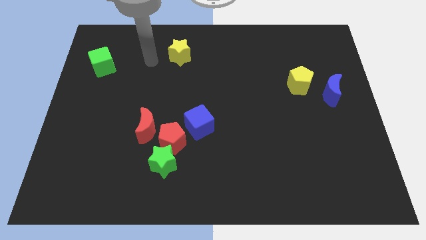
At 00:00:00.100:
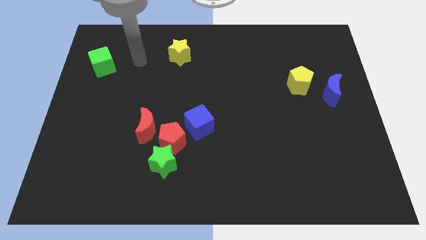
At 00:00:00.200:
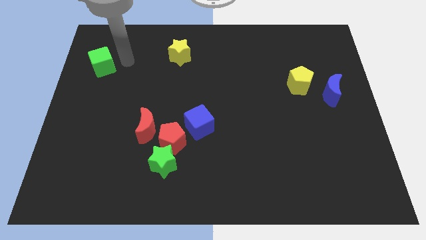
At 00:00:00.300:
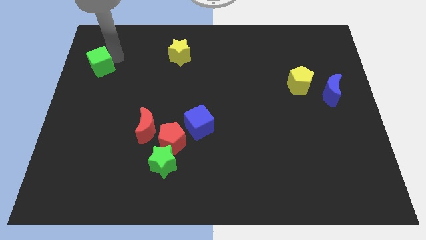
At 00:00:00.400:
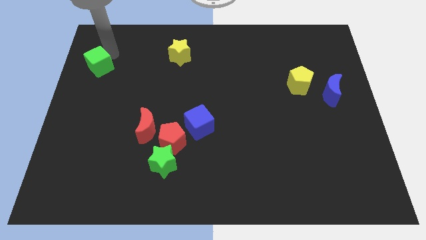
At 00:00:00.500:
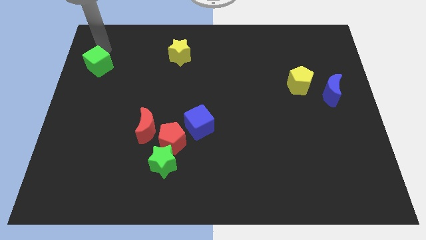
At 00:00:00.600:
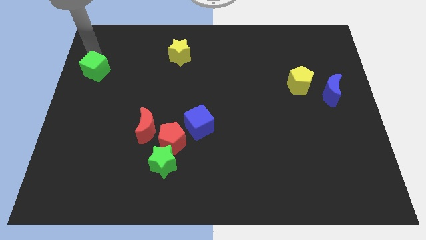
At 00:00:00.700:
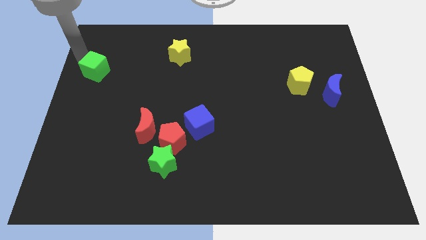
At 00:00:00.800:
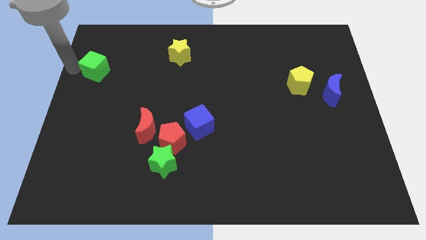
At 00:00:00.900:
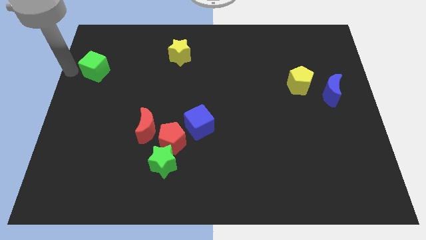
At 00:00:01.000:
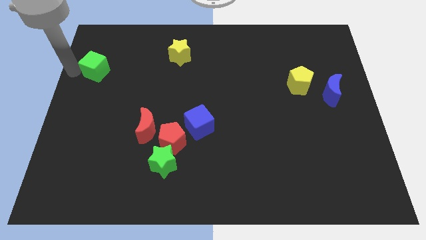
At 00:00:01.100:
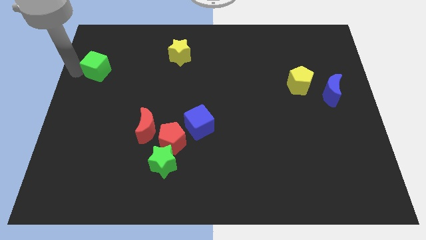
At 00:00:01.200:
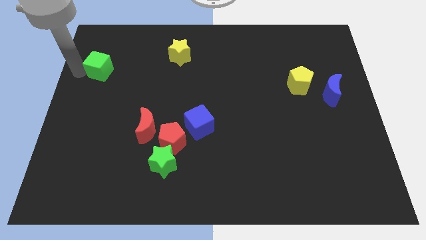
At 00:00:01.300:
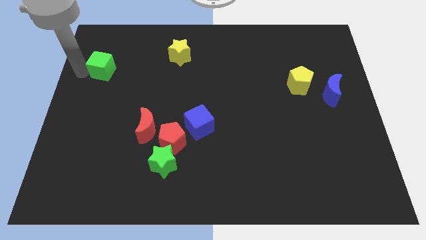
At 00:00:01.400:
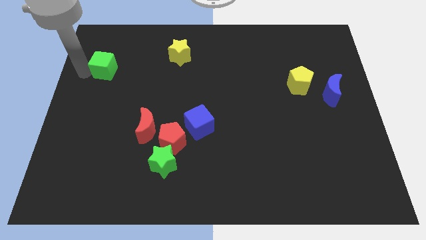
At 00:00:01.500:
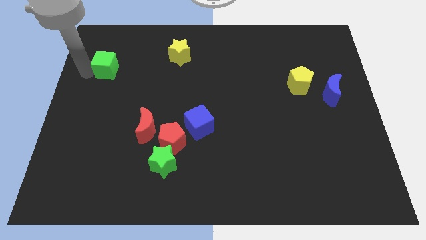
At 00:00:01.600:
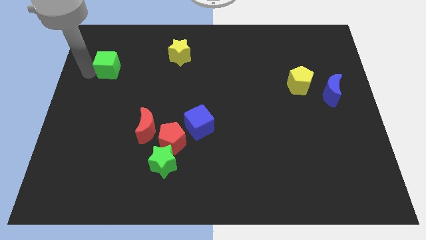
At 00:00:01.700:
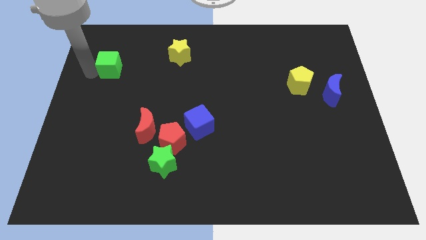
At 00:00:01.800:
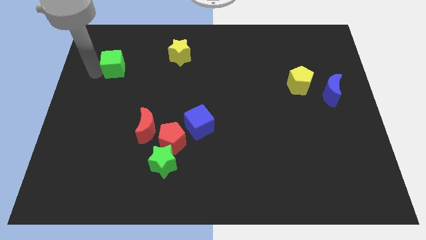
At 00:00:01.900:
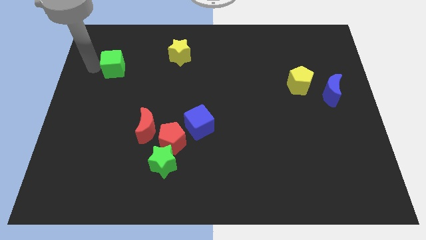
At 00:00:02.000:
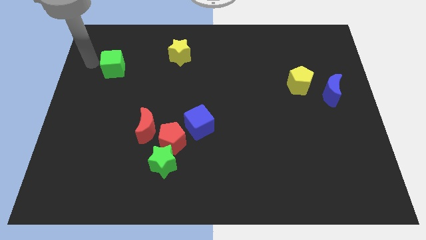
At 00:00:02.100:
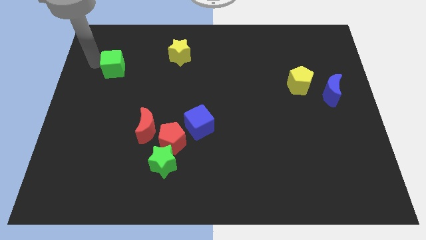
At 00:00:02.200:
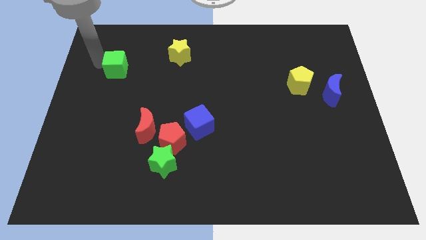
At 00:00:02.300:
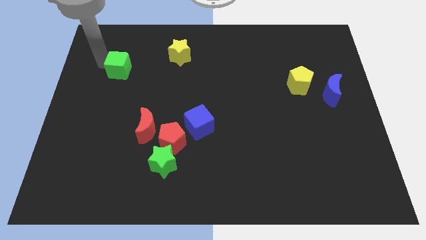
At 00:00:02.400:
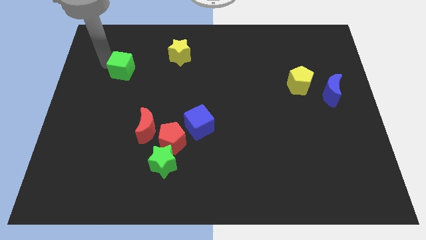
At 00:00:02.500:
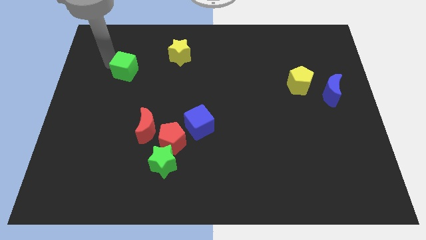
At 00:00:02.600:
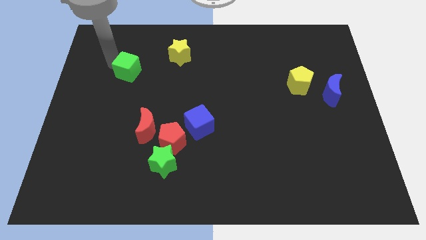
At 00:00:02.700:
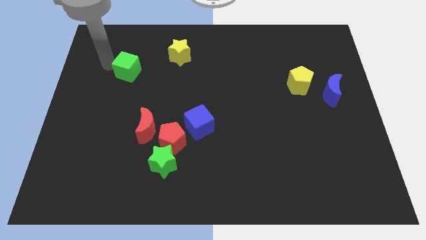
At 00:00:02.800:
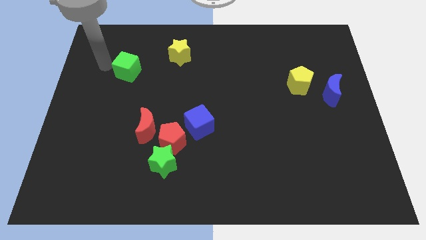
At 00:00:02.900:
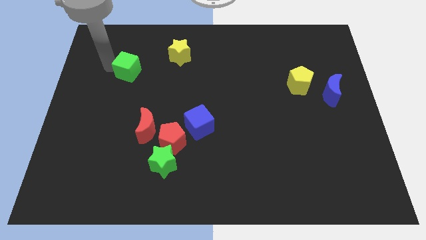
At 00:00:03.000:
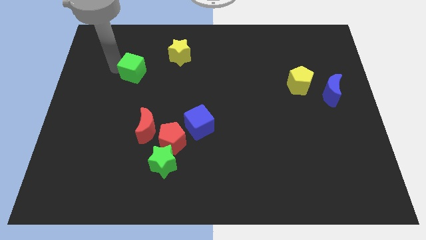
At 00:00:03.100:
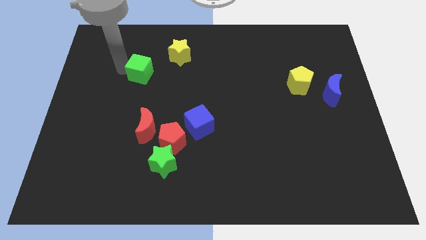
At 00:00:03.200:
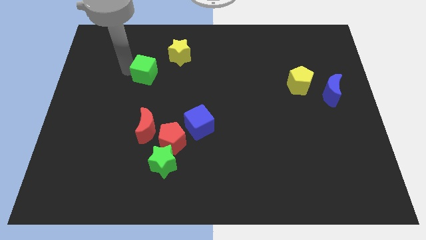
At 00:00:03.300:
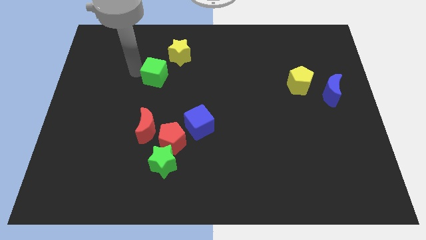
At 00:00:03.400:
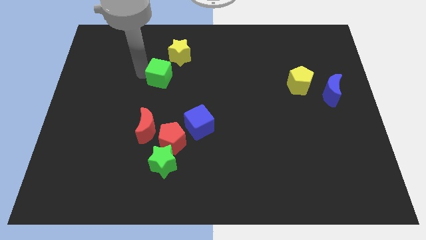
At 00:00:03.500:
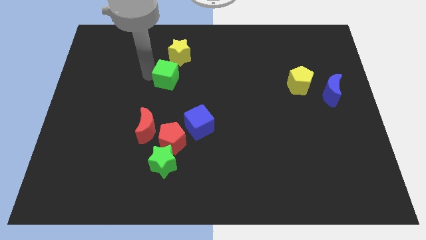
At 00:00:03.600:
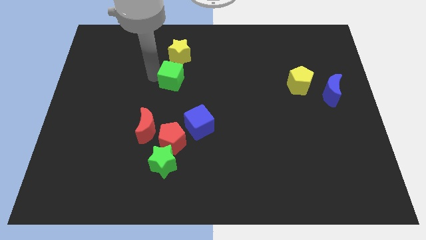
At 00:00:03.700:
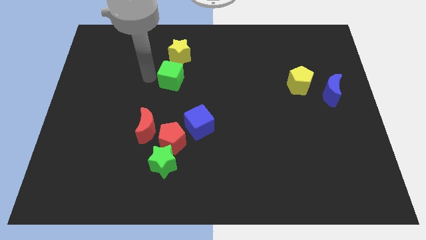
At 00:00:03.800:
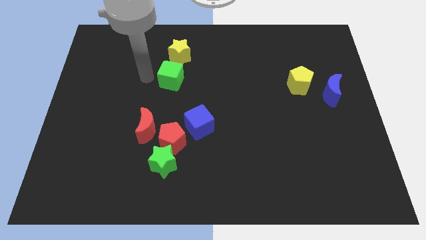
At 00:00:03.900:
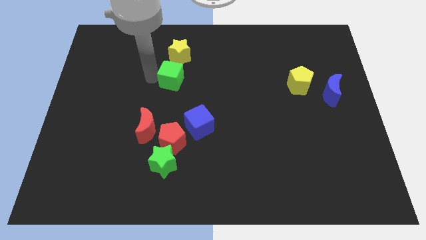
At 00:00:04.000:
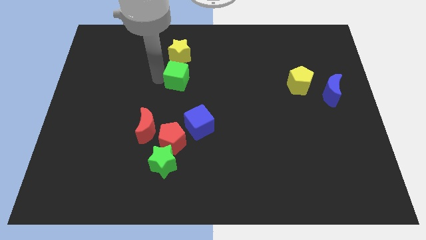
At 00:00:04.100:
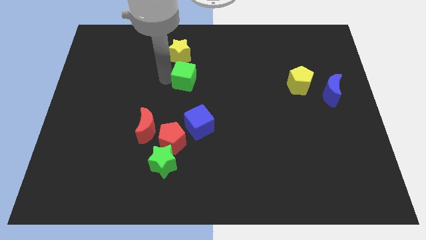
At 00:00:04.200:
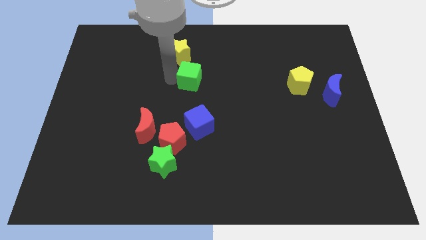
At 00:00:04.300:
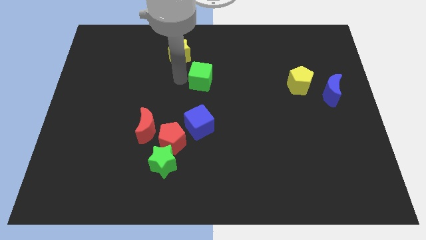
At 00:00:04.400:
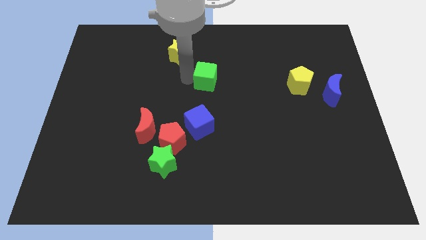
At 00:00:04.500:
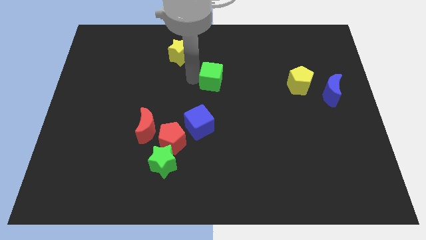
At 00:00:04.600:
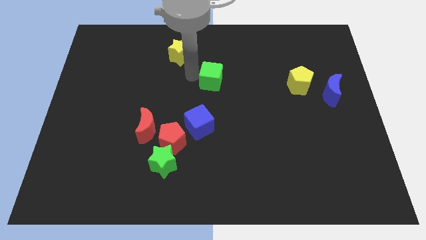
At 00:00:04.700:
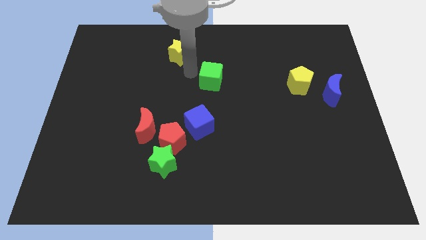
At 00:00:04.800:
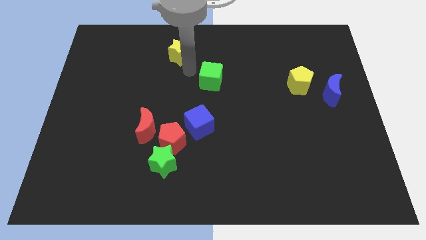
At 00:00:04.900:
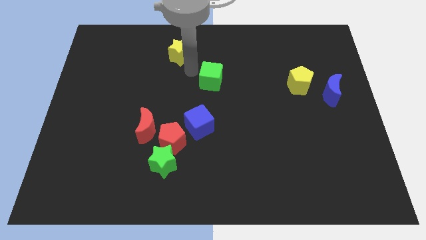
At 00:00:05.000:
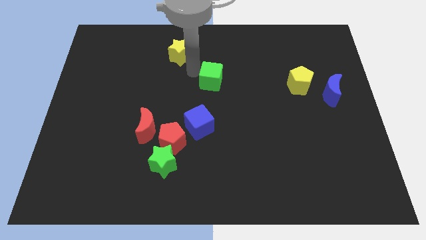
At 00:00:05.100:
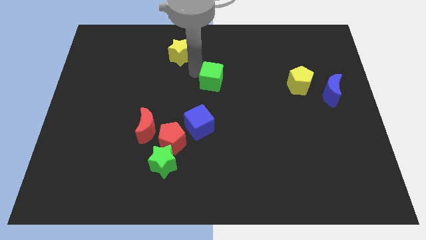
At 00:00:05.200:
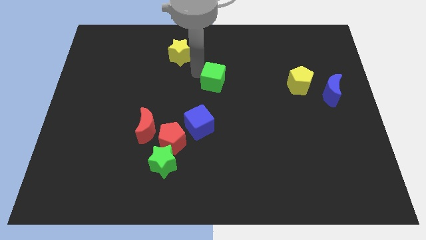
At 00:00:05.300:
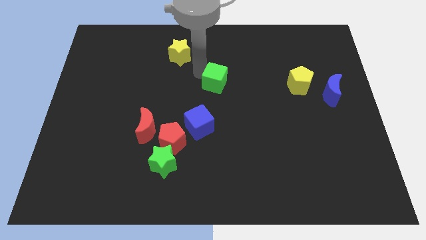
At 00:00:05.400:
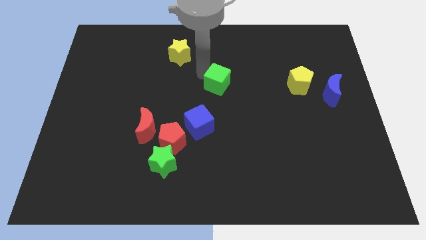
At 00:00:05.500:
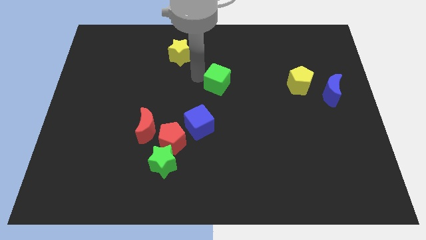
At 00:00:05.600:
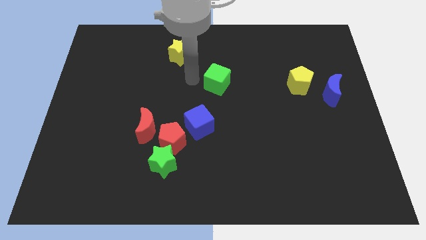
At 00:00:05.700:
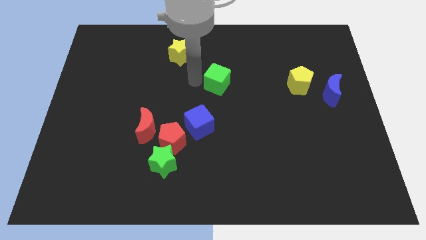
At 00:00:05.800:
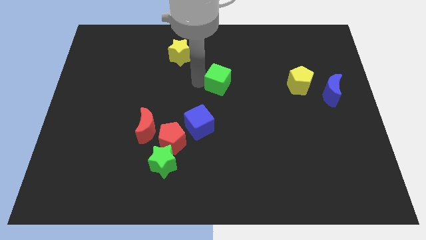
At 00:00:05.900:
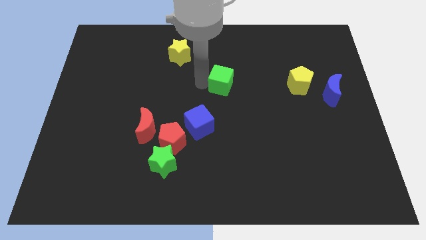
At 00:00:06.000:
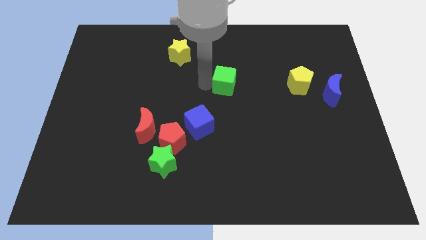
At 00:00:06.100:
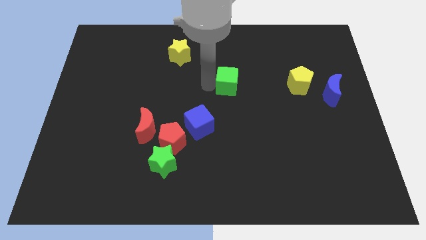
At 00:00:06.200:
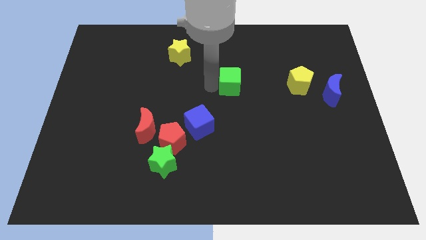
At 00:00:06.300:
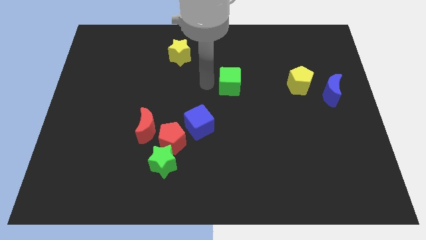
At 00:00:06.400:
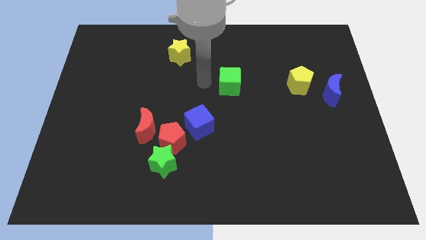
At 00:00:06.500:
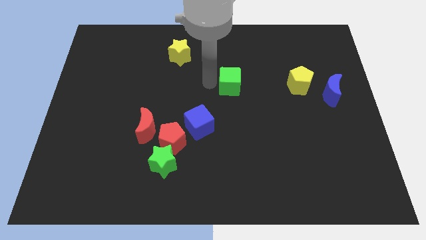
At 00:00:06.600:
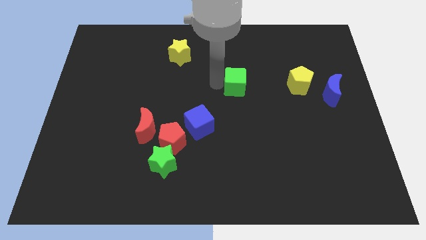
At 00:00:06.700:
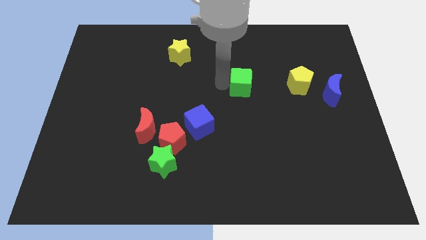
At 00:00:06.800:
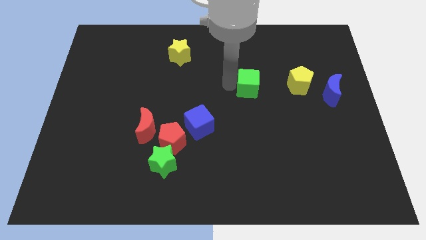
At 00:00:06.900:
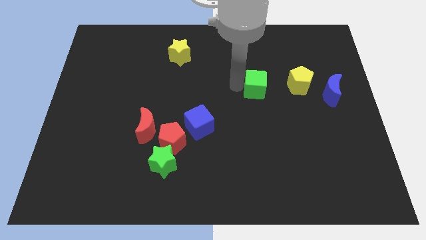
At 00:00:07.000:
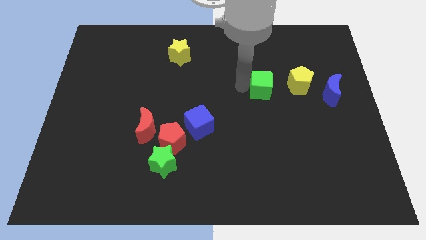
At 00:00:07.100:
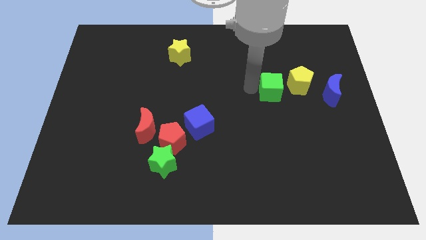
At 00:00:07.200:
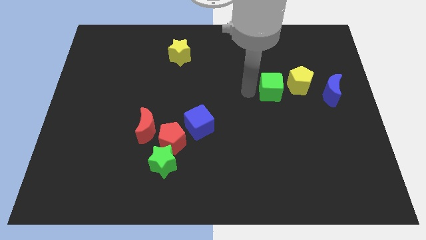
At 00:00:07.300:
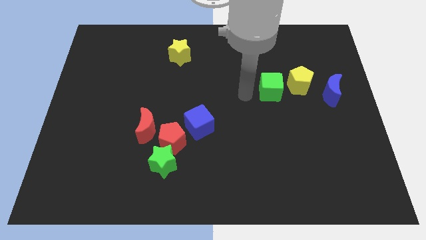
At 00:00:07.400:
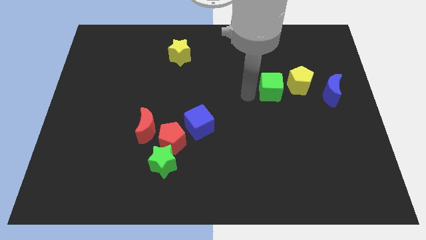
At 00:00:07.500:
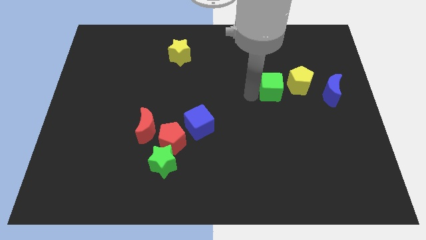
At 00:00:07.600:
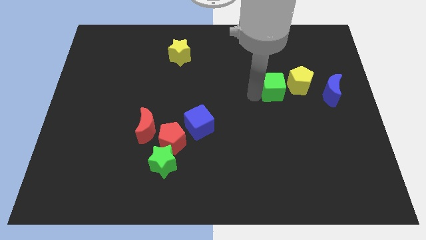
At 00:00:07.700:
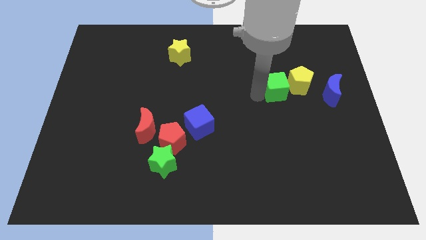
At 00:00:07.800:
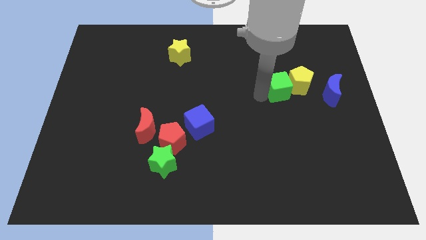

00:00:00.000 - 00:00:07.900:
put the green cube towards the yellow pentagon
